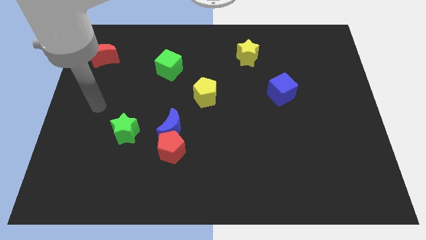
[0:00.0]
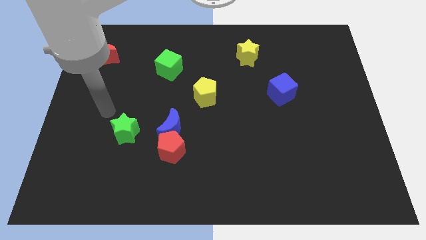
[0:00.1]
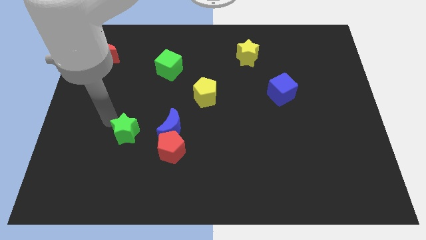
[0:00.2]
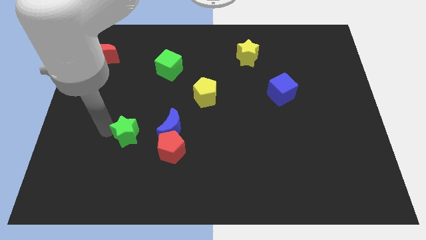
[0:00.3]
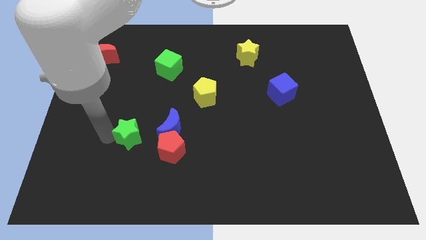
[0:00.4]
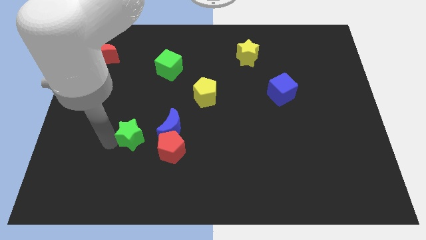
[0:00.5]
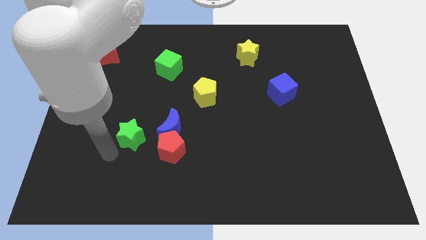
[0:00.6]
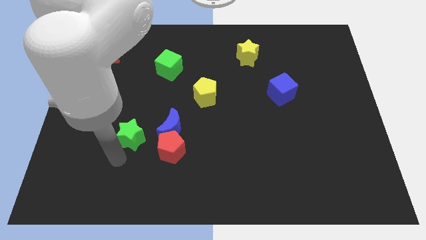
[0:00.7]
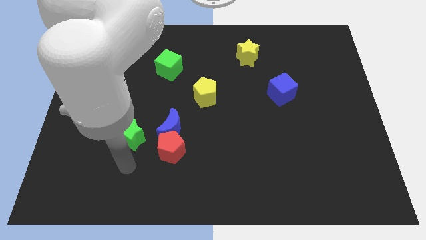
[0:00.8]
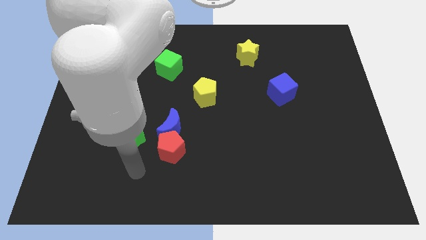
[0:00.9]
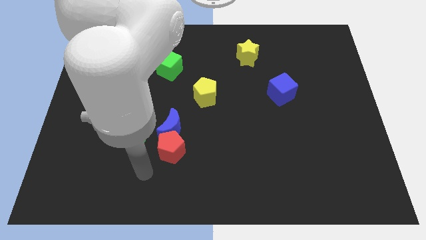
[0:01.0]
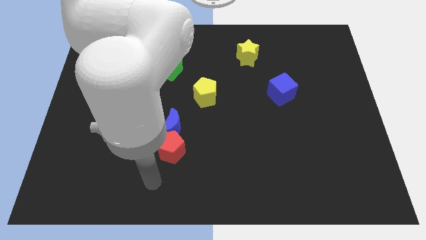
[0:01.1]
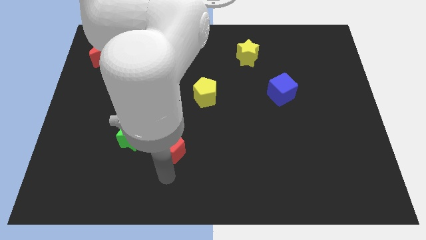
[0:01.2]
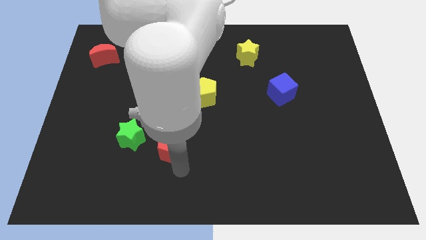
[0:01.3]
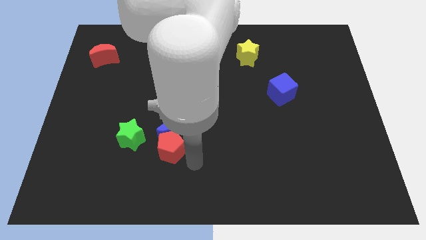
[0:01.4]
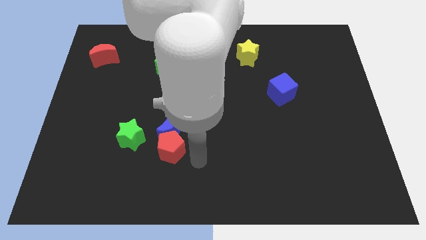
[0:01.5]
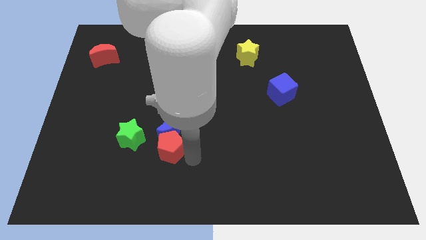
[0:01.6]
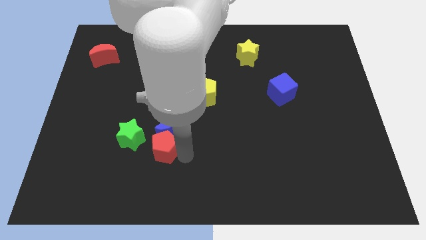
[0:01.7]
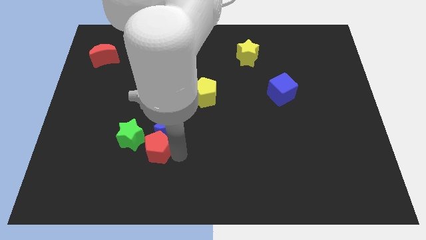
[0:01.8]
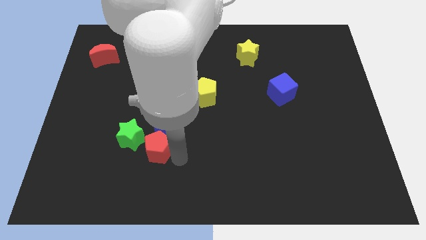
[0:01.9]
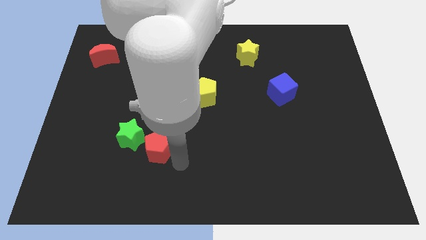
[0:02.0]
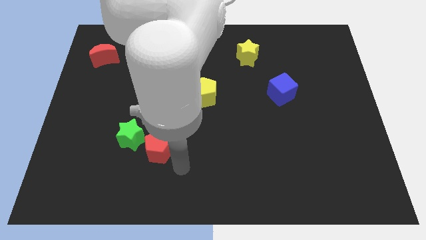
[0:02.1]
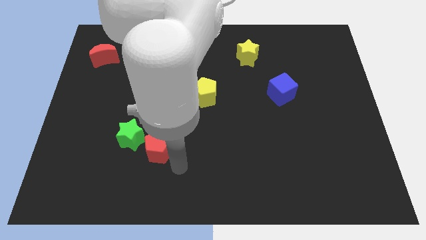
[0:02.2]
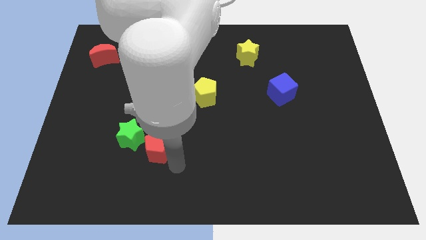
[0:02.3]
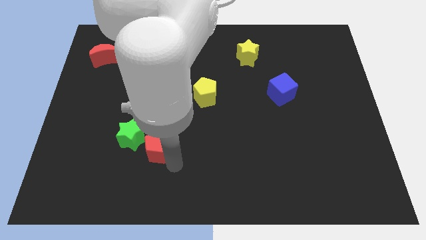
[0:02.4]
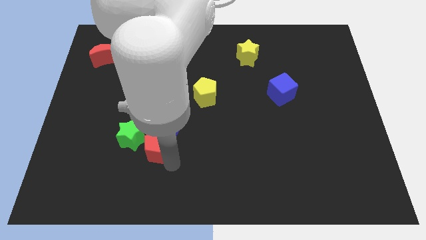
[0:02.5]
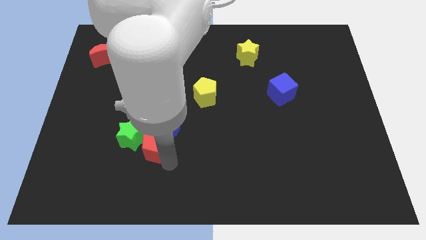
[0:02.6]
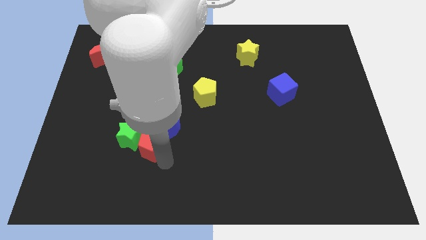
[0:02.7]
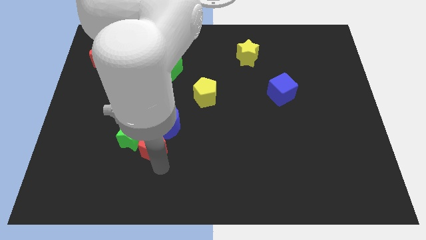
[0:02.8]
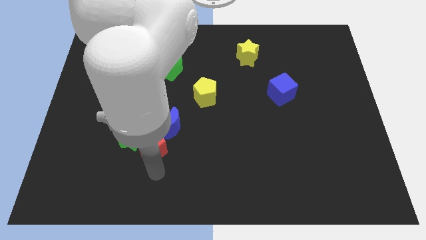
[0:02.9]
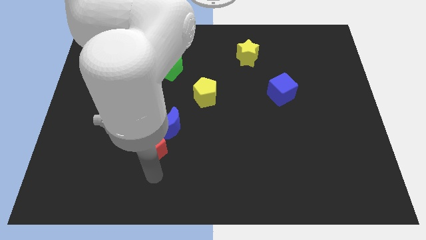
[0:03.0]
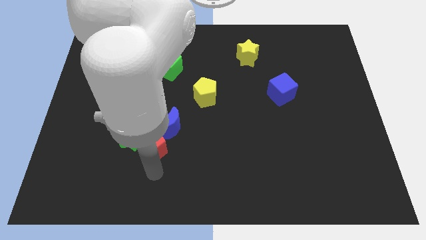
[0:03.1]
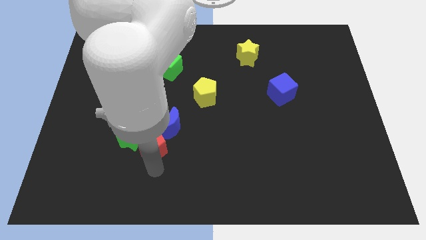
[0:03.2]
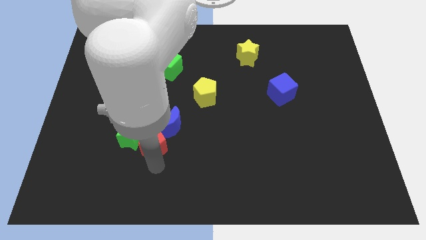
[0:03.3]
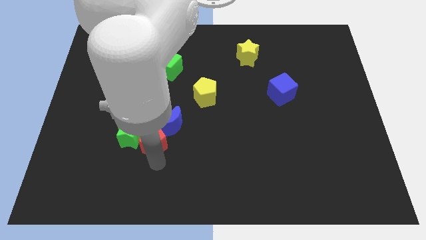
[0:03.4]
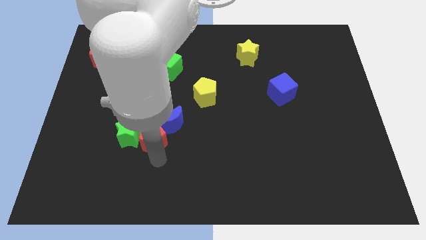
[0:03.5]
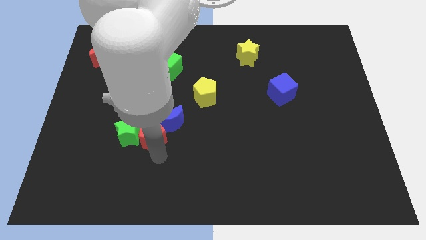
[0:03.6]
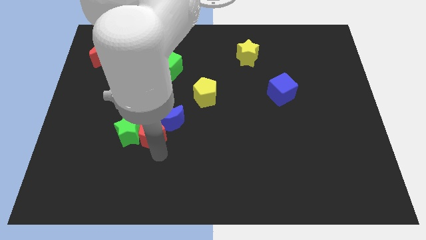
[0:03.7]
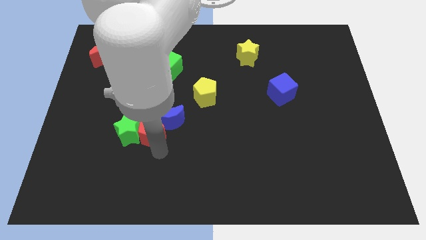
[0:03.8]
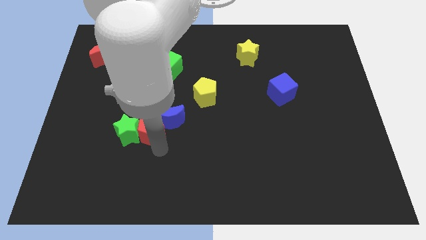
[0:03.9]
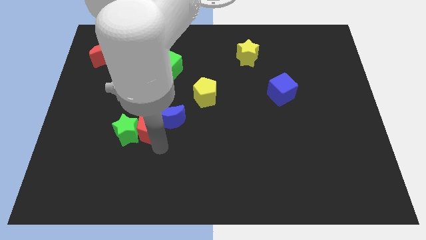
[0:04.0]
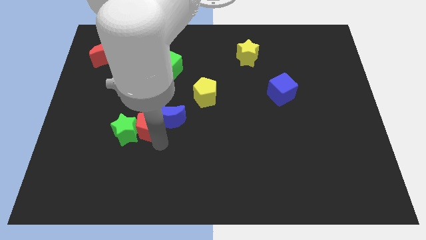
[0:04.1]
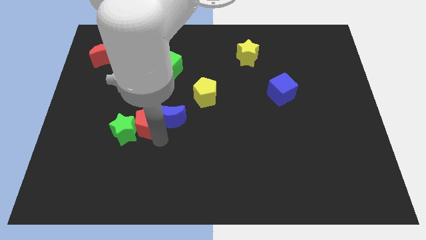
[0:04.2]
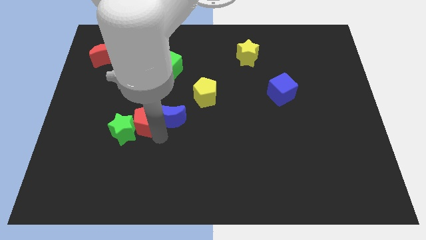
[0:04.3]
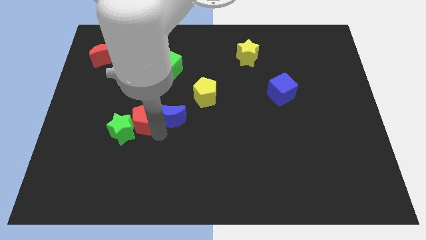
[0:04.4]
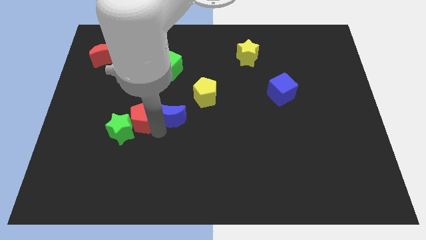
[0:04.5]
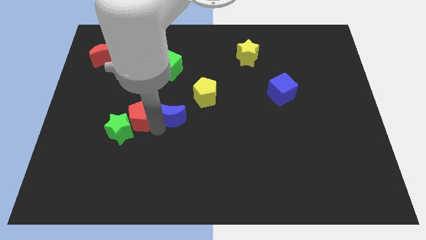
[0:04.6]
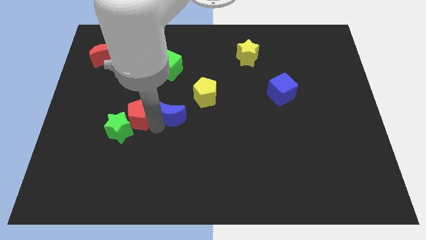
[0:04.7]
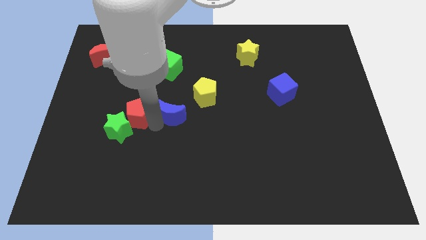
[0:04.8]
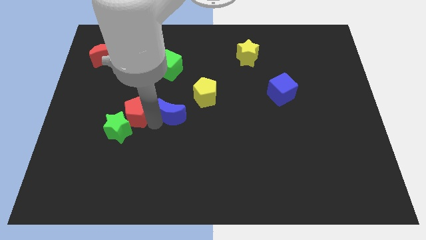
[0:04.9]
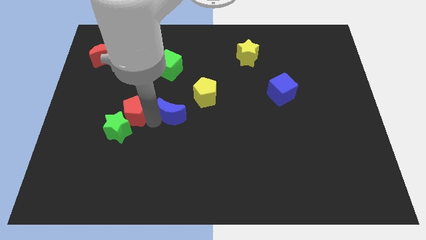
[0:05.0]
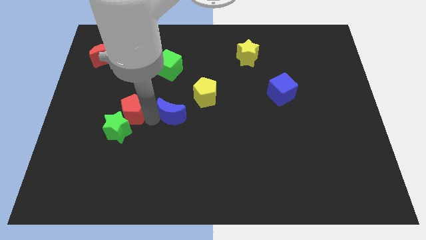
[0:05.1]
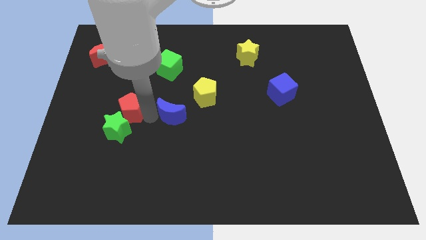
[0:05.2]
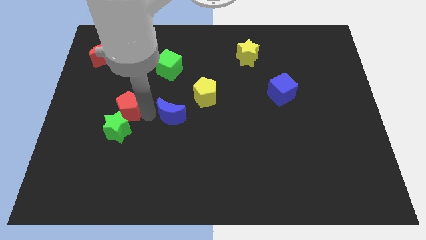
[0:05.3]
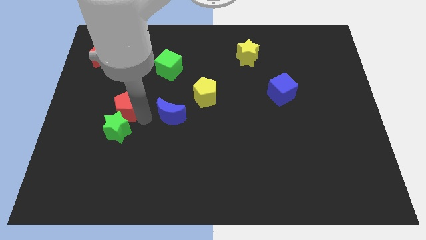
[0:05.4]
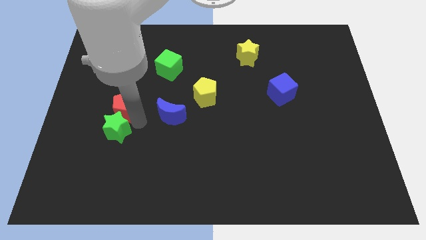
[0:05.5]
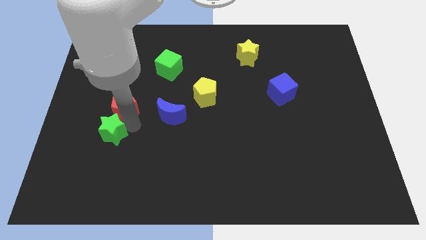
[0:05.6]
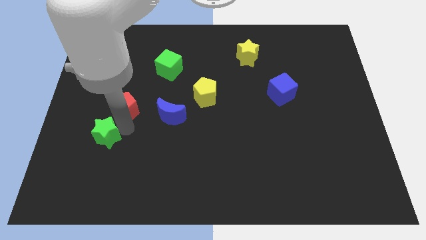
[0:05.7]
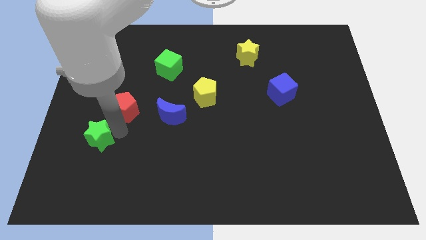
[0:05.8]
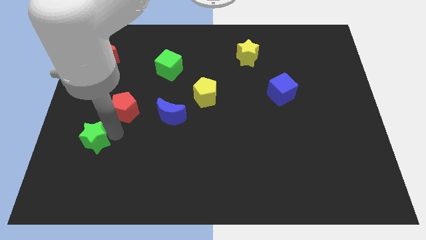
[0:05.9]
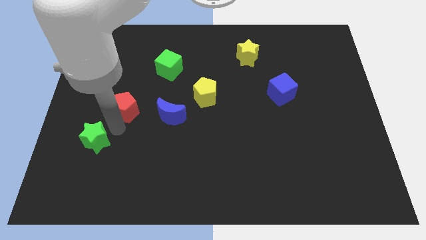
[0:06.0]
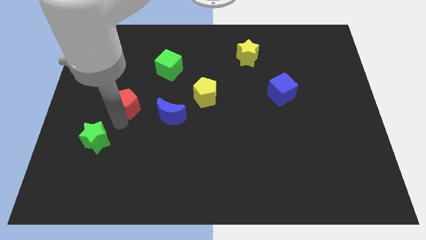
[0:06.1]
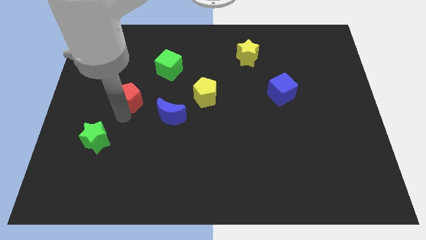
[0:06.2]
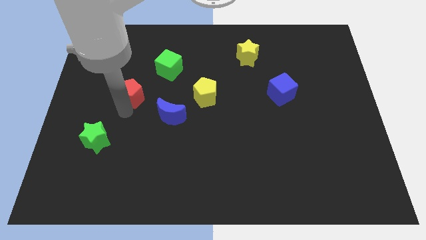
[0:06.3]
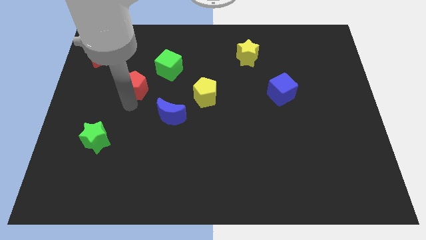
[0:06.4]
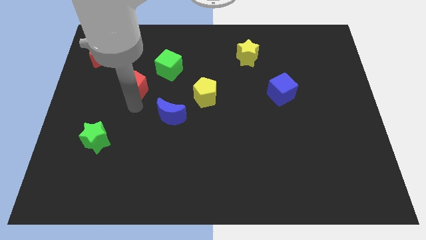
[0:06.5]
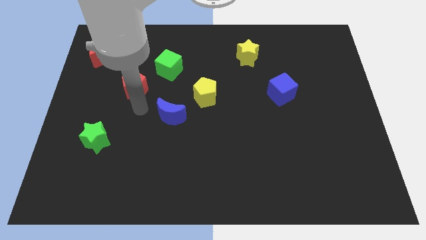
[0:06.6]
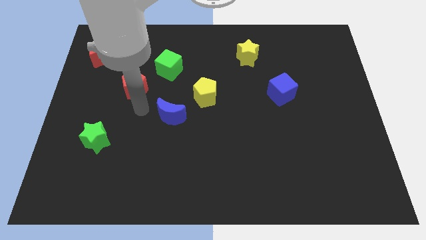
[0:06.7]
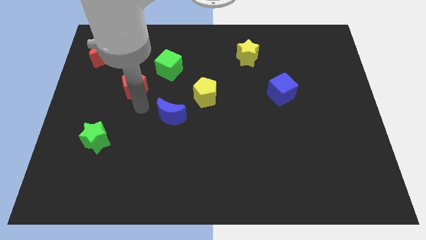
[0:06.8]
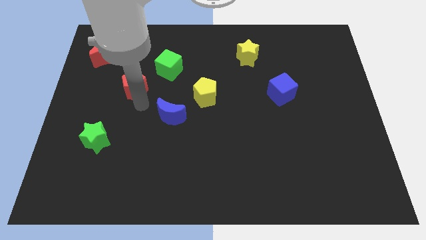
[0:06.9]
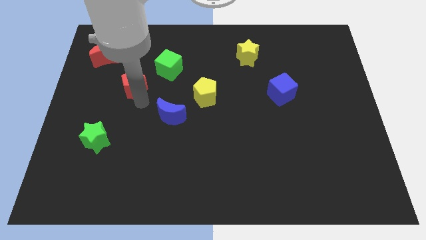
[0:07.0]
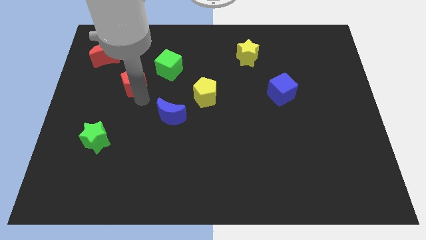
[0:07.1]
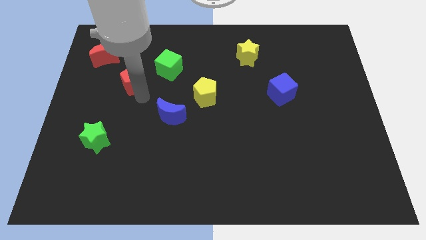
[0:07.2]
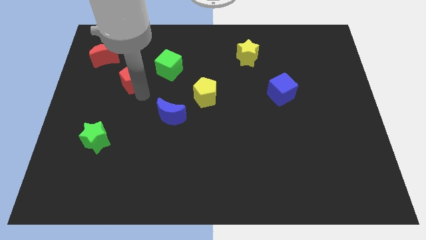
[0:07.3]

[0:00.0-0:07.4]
move the red pentagon to the left side of the green cube
